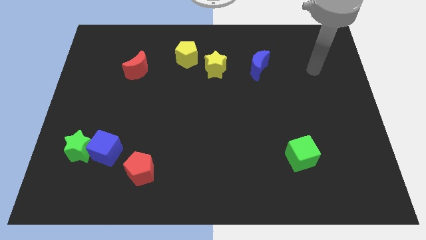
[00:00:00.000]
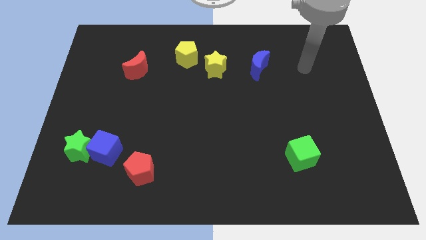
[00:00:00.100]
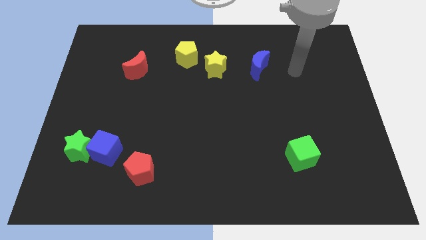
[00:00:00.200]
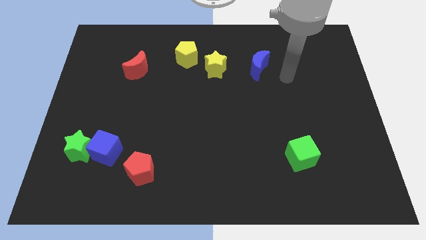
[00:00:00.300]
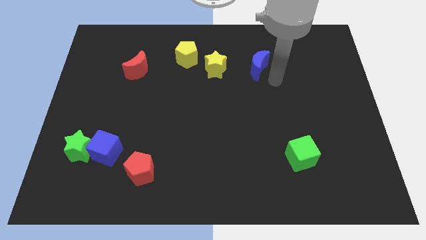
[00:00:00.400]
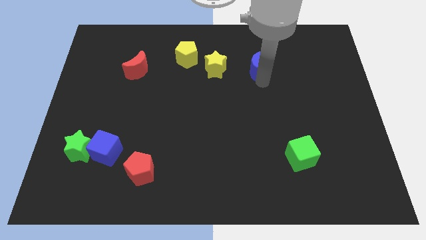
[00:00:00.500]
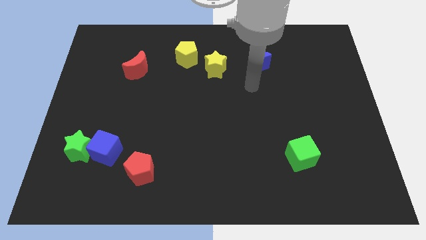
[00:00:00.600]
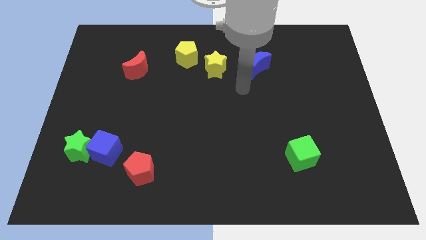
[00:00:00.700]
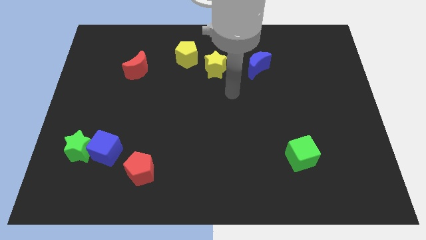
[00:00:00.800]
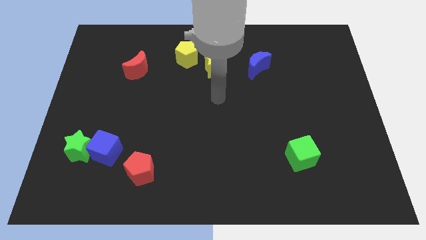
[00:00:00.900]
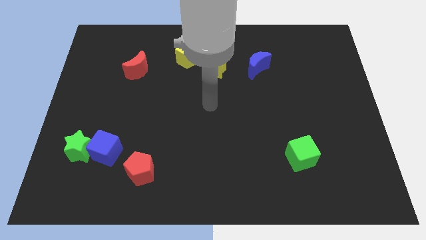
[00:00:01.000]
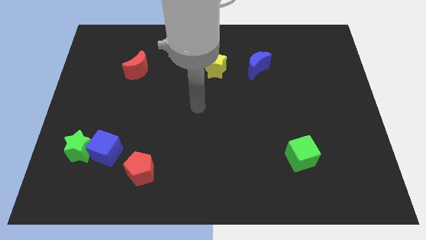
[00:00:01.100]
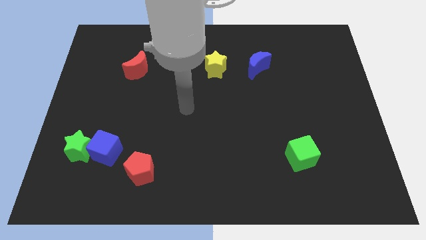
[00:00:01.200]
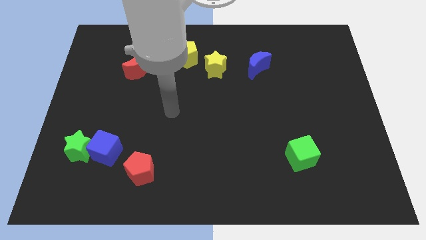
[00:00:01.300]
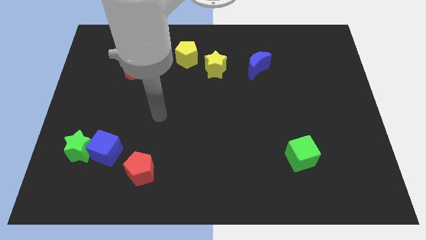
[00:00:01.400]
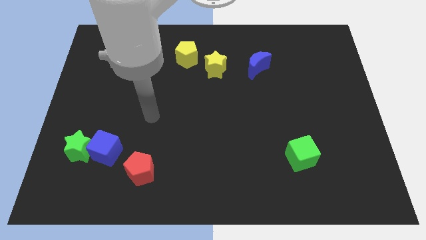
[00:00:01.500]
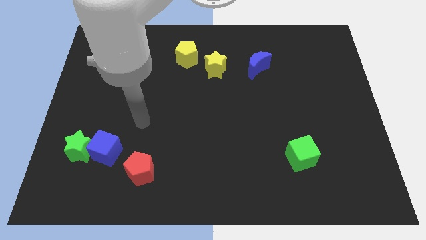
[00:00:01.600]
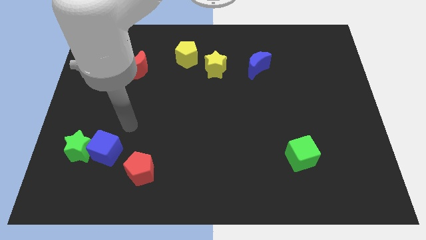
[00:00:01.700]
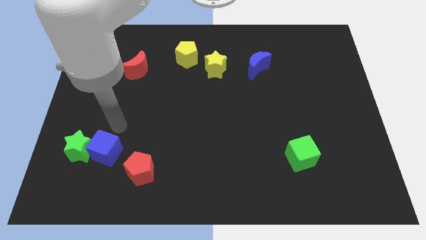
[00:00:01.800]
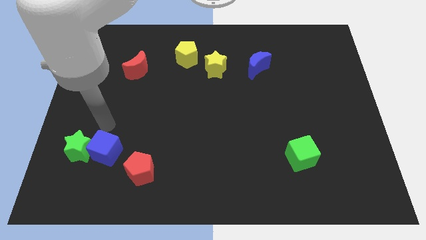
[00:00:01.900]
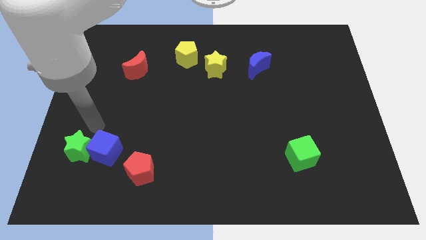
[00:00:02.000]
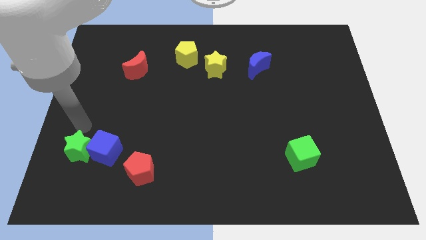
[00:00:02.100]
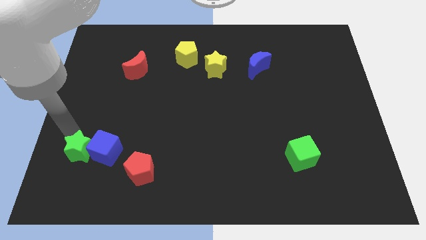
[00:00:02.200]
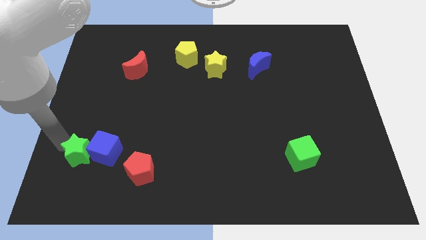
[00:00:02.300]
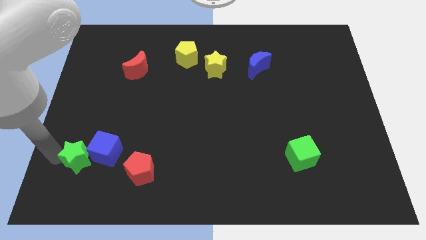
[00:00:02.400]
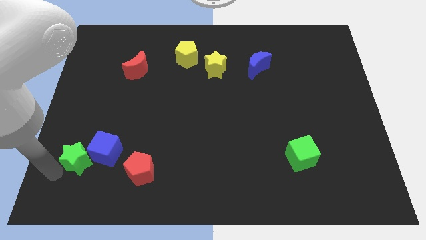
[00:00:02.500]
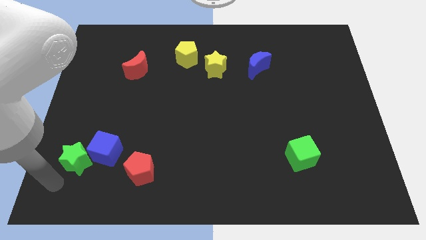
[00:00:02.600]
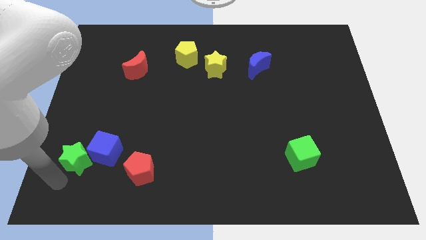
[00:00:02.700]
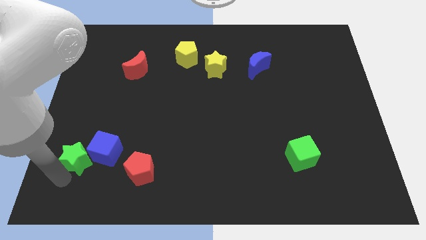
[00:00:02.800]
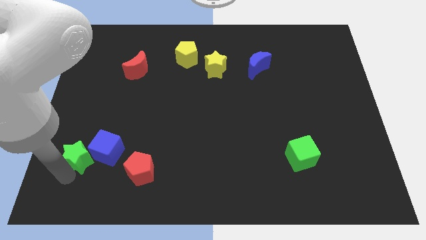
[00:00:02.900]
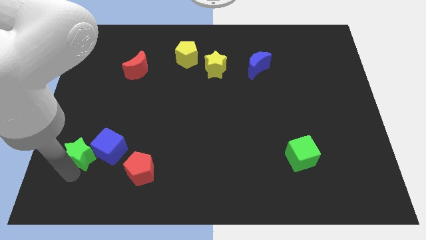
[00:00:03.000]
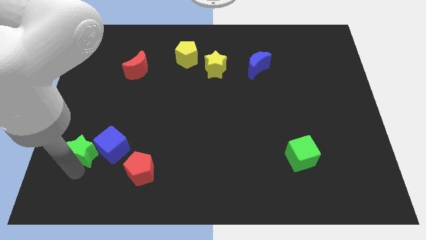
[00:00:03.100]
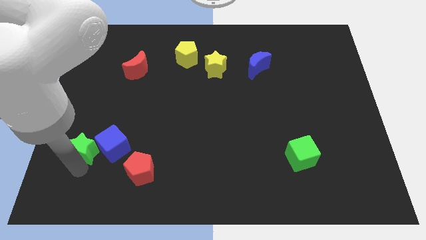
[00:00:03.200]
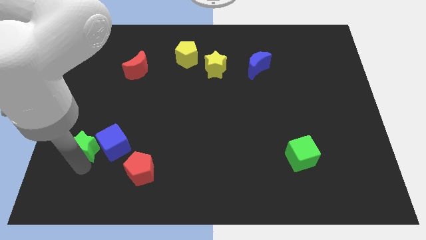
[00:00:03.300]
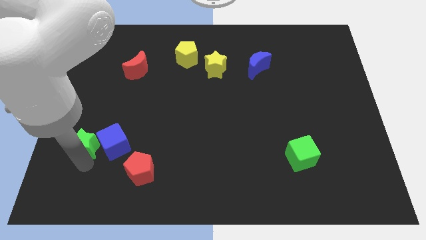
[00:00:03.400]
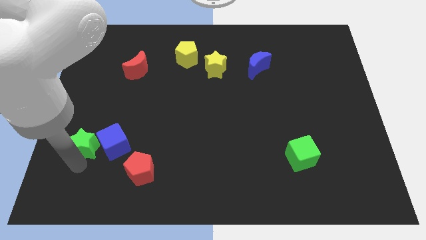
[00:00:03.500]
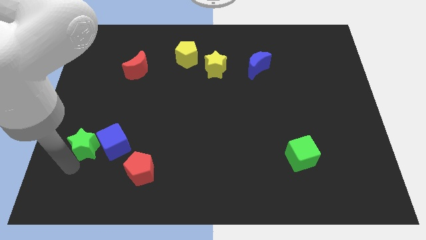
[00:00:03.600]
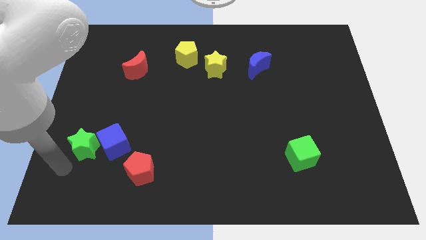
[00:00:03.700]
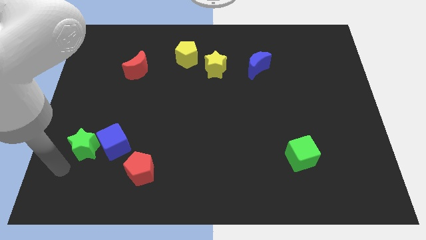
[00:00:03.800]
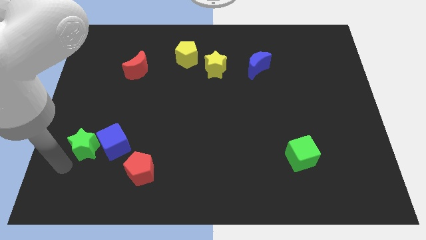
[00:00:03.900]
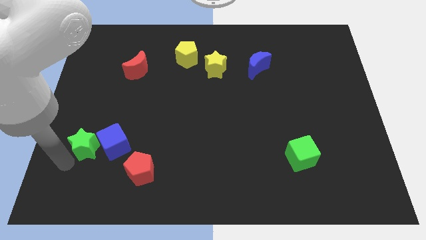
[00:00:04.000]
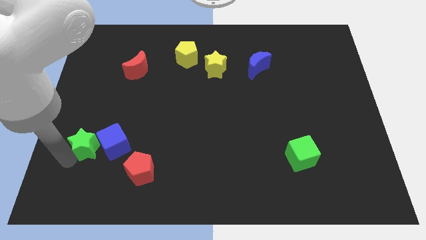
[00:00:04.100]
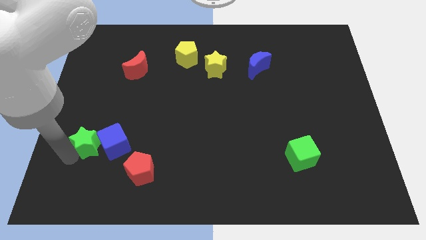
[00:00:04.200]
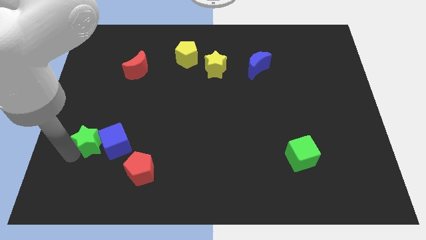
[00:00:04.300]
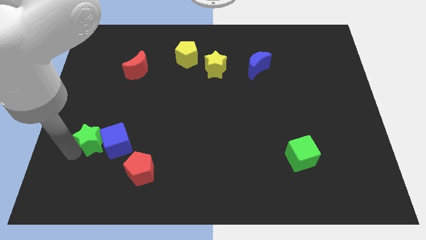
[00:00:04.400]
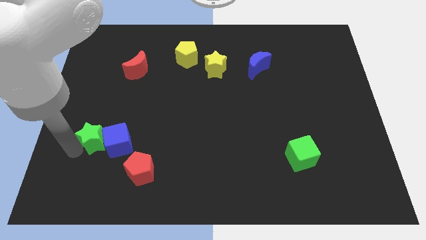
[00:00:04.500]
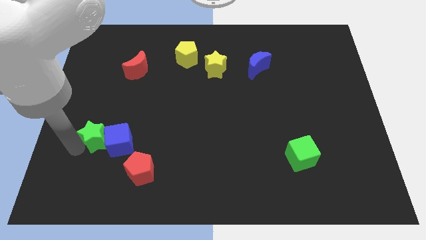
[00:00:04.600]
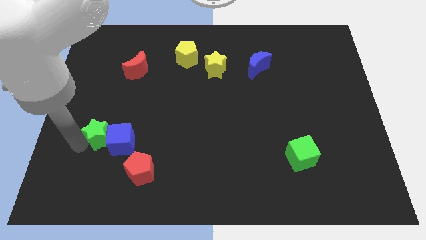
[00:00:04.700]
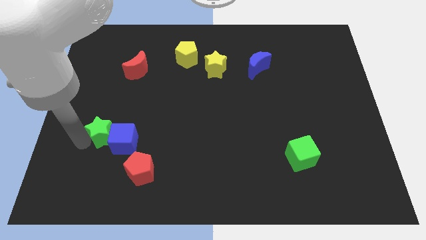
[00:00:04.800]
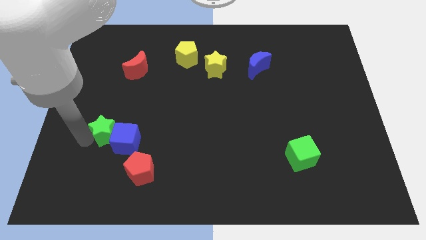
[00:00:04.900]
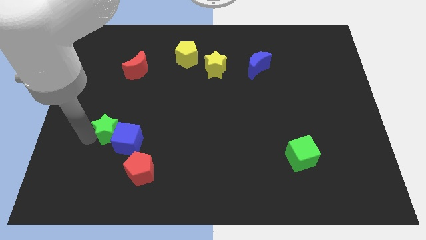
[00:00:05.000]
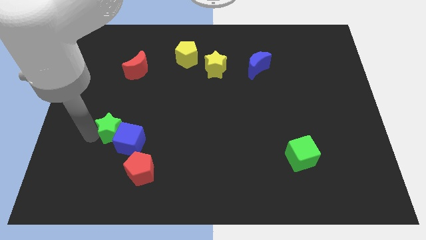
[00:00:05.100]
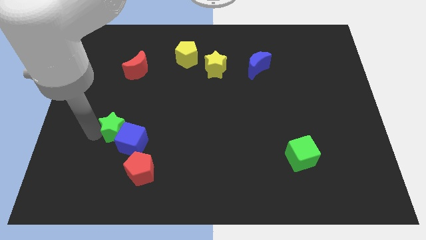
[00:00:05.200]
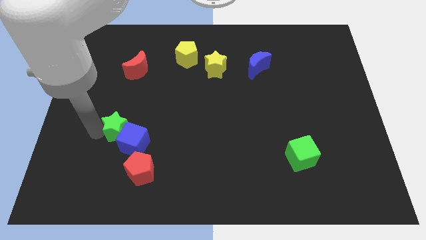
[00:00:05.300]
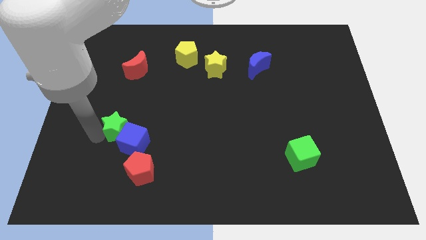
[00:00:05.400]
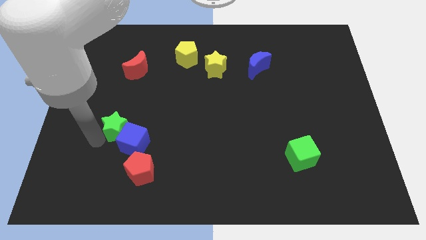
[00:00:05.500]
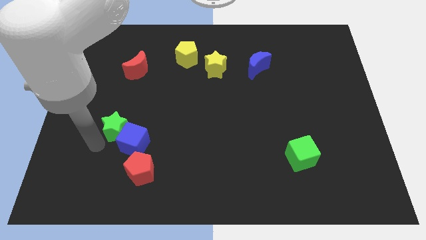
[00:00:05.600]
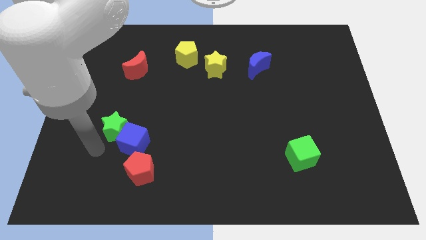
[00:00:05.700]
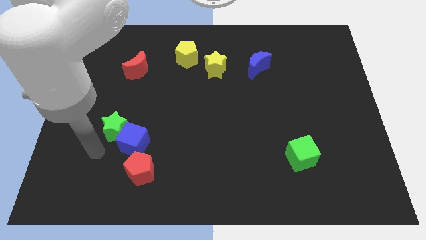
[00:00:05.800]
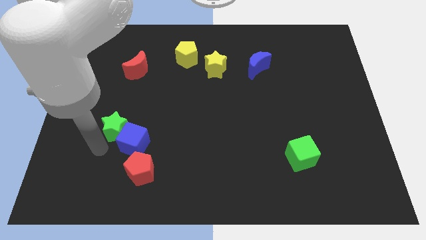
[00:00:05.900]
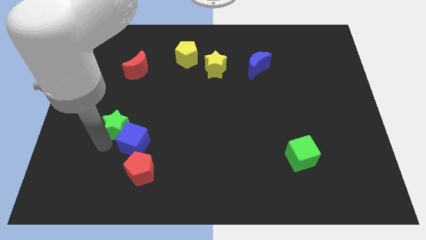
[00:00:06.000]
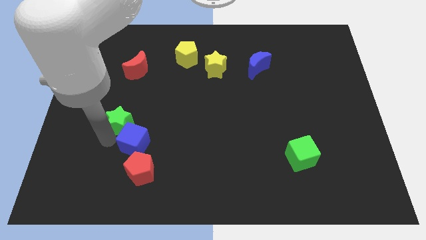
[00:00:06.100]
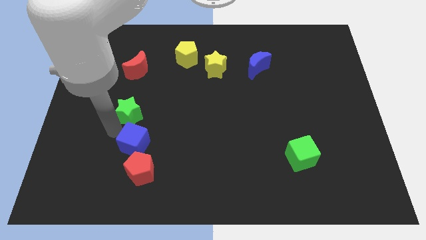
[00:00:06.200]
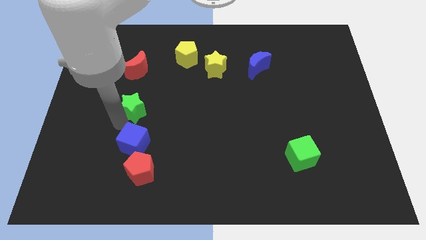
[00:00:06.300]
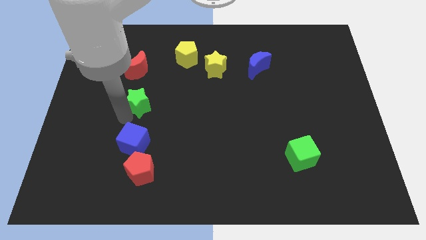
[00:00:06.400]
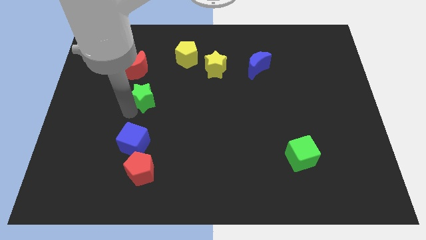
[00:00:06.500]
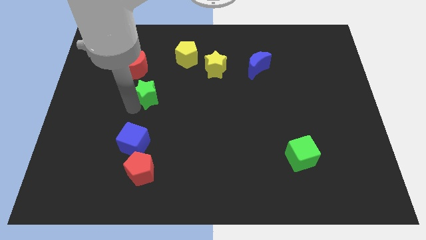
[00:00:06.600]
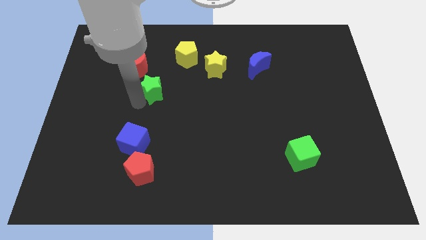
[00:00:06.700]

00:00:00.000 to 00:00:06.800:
move the green star up and to the right

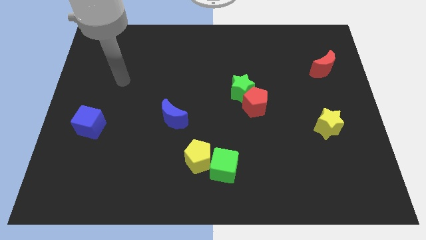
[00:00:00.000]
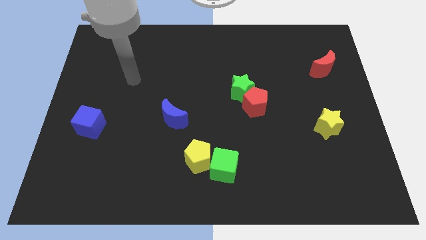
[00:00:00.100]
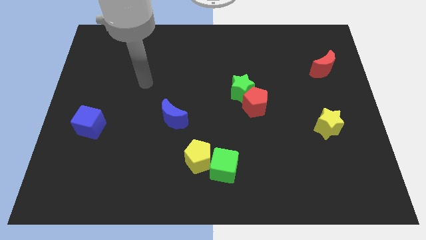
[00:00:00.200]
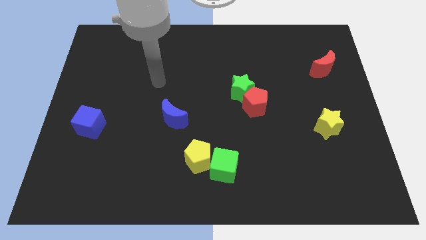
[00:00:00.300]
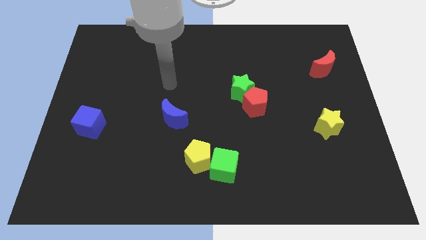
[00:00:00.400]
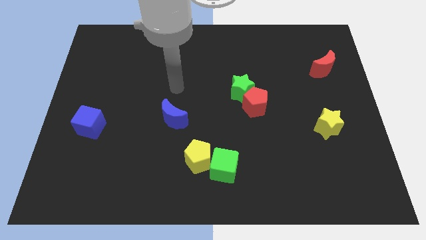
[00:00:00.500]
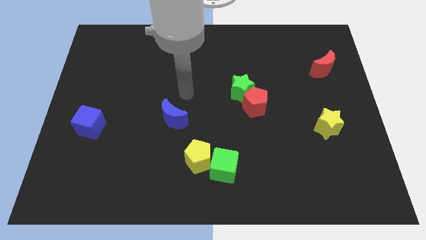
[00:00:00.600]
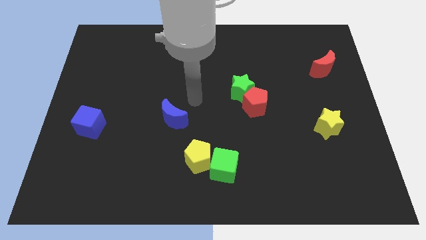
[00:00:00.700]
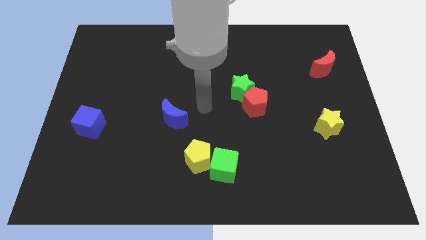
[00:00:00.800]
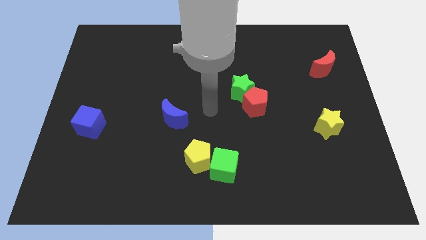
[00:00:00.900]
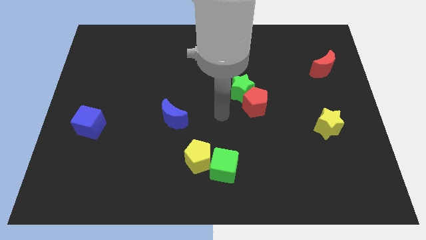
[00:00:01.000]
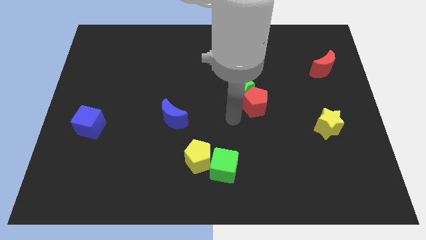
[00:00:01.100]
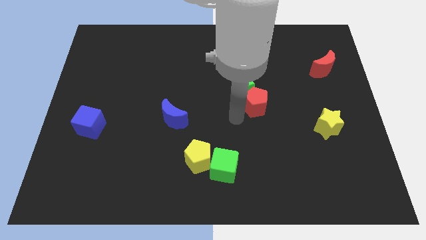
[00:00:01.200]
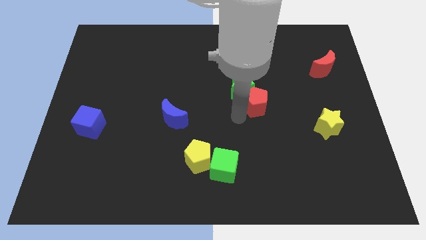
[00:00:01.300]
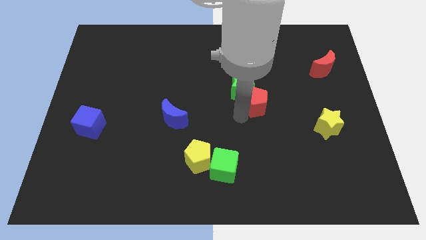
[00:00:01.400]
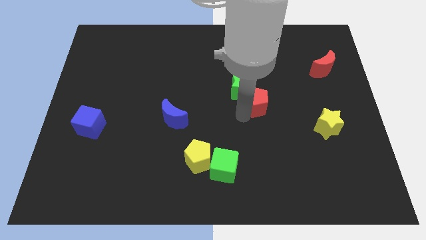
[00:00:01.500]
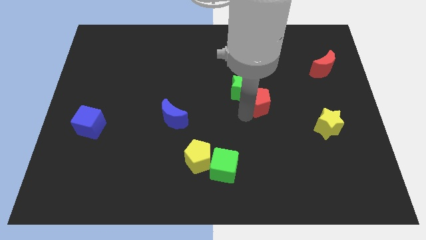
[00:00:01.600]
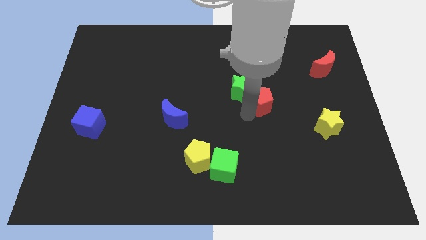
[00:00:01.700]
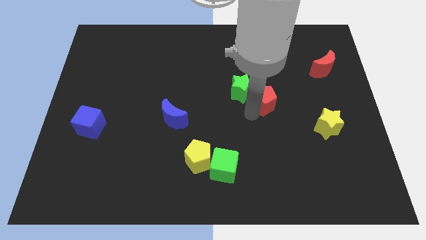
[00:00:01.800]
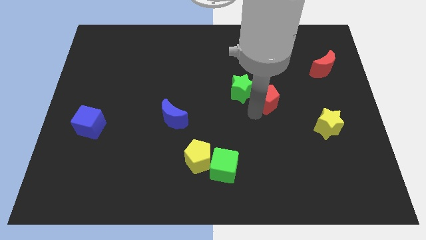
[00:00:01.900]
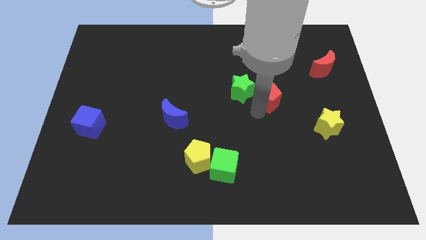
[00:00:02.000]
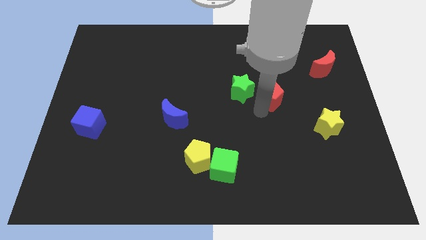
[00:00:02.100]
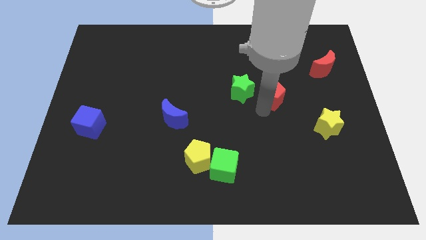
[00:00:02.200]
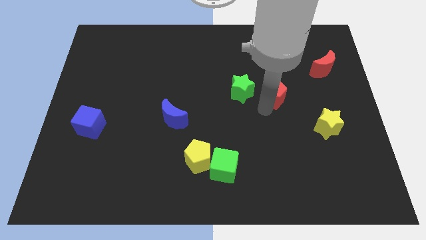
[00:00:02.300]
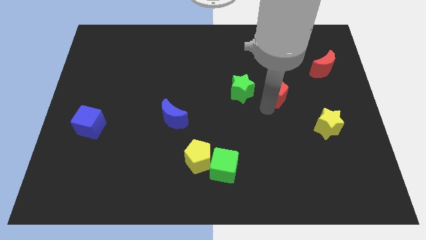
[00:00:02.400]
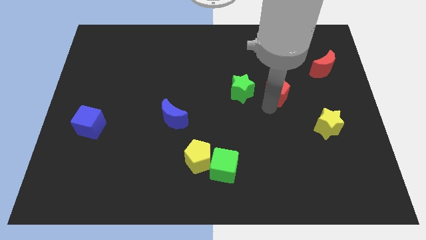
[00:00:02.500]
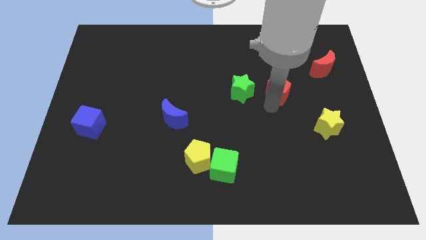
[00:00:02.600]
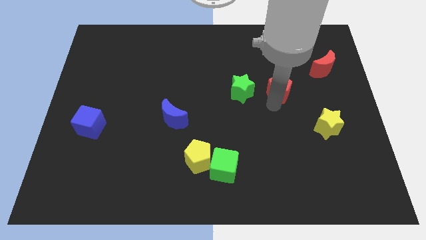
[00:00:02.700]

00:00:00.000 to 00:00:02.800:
move the red pentagon upwards and to the right a bit
